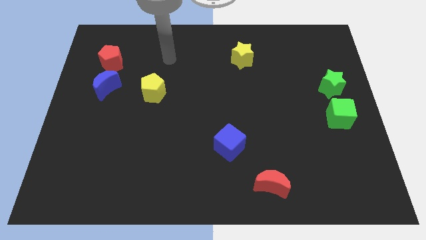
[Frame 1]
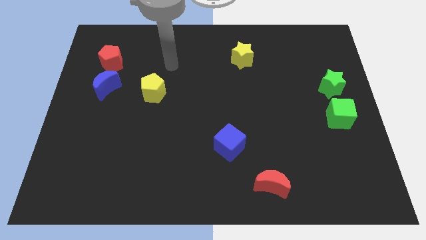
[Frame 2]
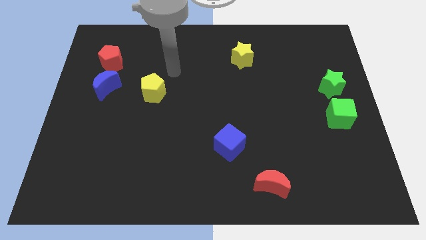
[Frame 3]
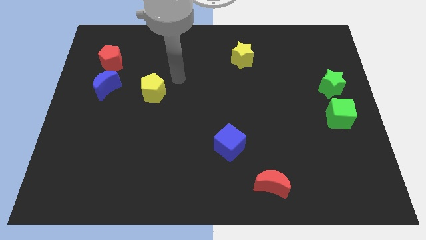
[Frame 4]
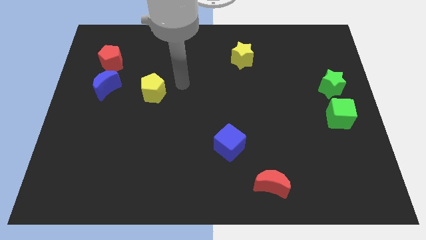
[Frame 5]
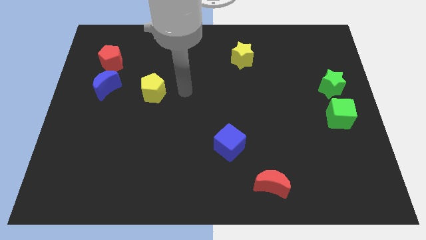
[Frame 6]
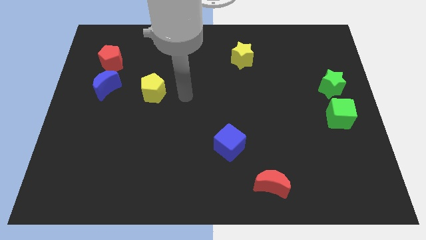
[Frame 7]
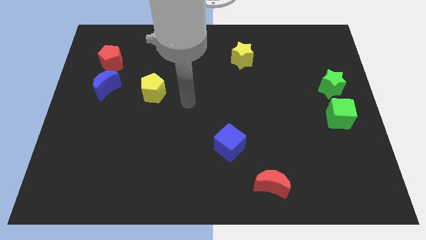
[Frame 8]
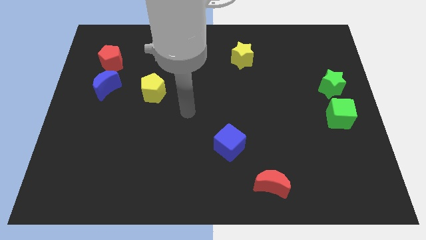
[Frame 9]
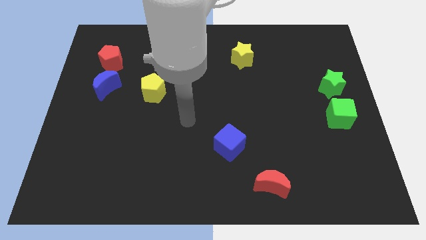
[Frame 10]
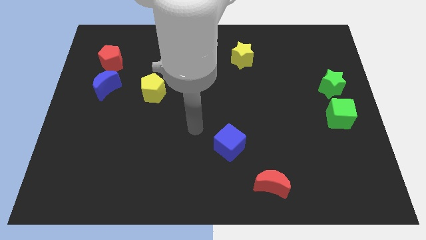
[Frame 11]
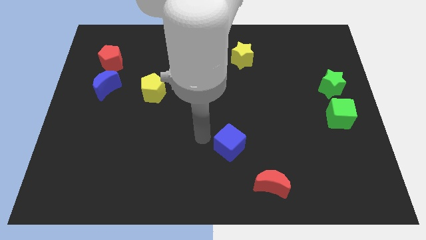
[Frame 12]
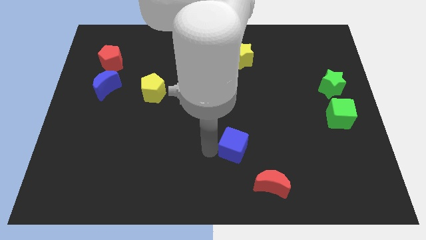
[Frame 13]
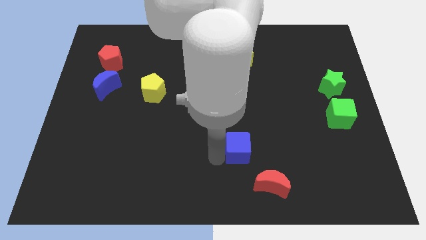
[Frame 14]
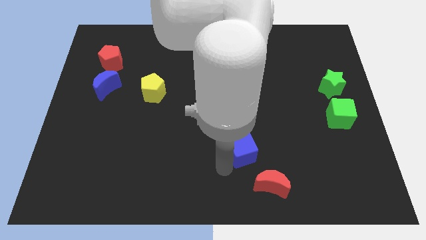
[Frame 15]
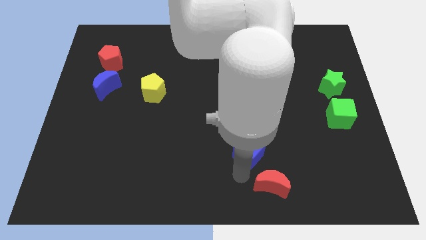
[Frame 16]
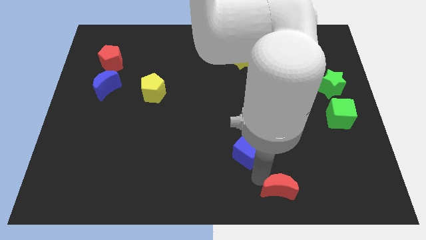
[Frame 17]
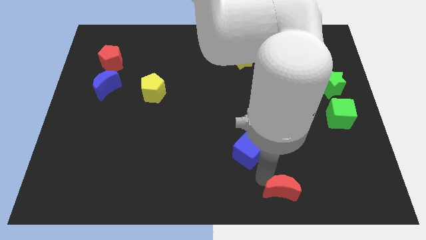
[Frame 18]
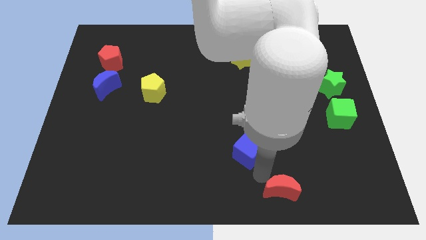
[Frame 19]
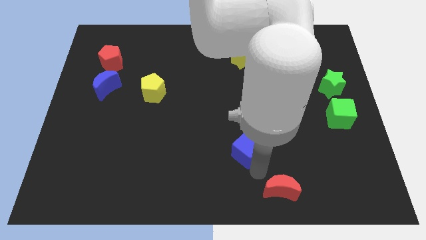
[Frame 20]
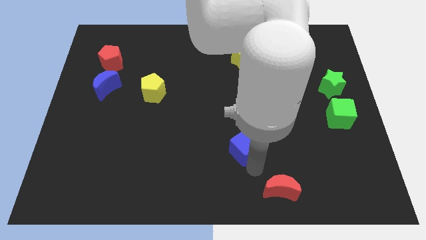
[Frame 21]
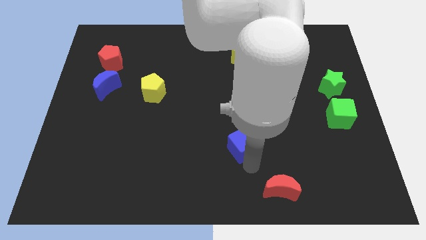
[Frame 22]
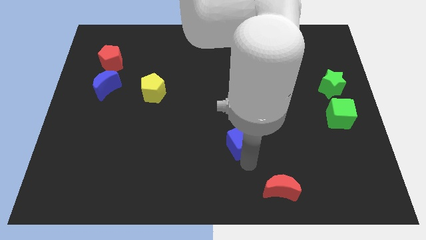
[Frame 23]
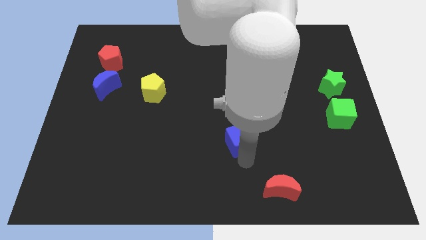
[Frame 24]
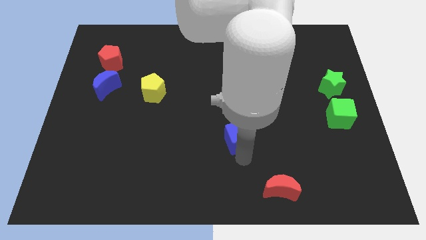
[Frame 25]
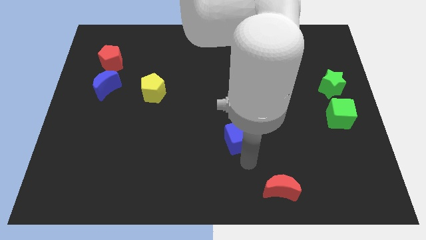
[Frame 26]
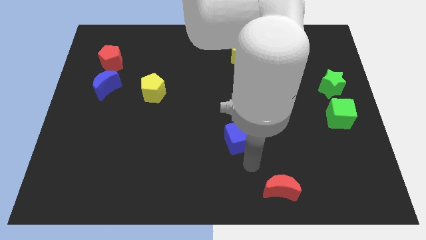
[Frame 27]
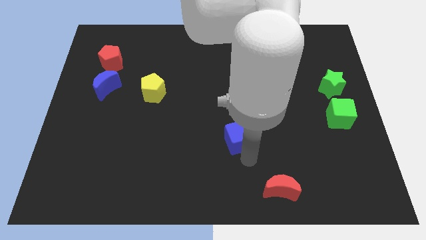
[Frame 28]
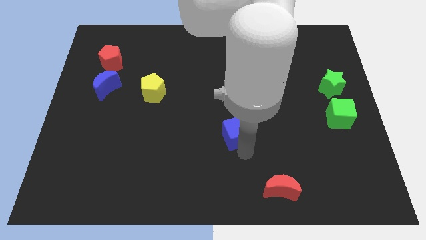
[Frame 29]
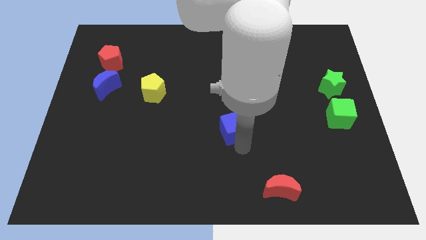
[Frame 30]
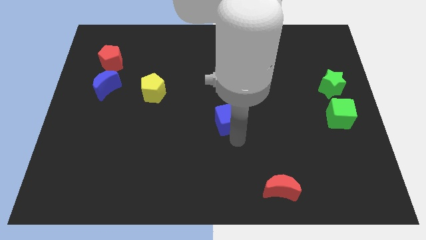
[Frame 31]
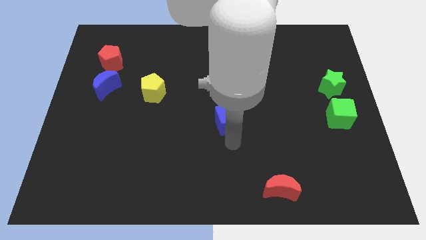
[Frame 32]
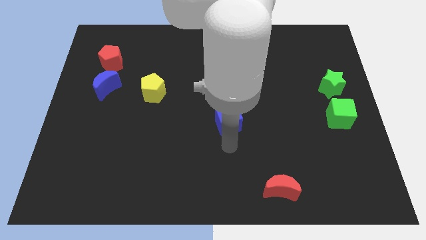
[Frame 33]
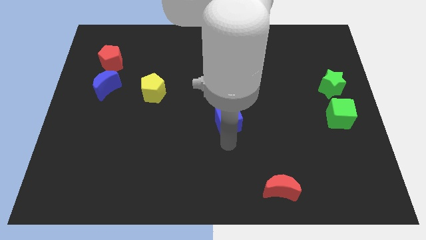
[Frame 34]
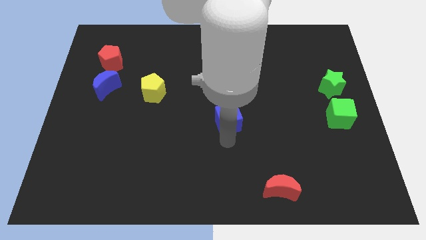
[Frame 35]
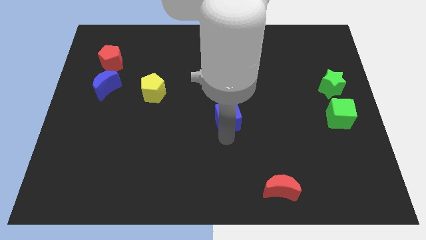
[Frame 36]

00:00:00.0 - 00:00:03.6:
move the blue cube a bit upwards

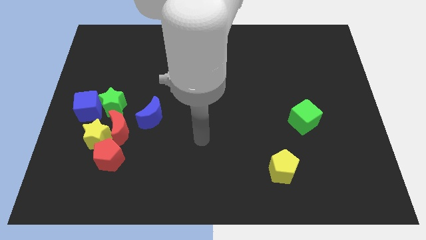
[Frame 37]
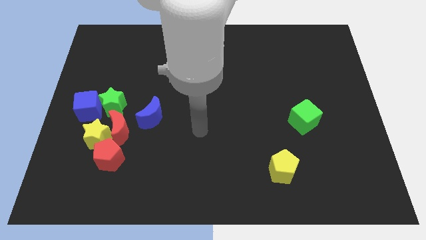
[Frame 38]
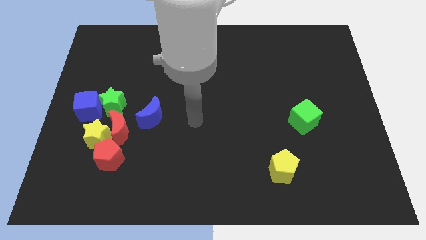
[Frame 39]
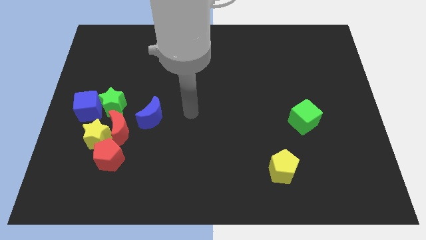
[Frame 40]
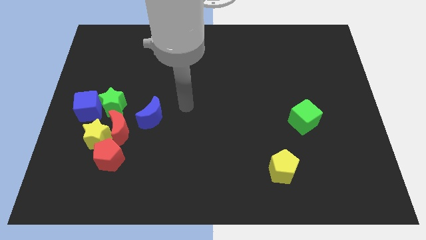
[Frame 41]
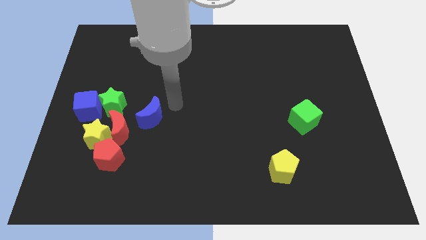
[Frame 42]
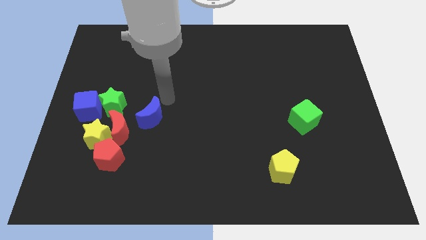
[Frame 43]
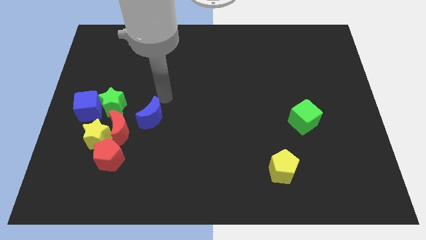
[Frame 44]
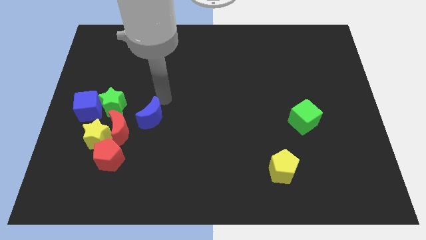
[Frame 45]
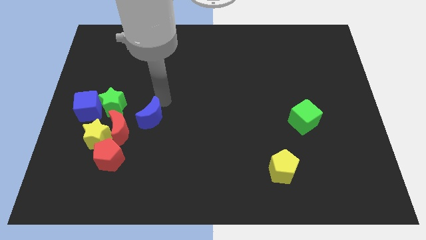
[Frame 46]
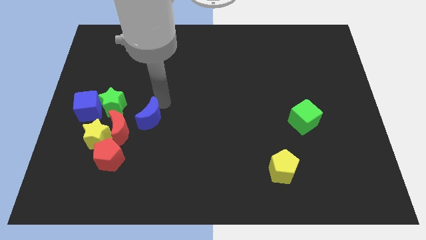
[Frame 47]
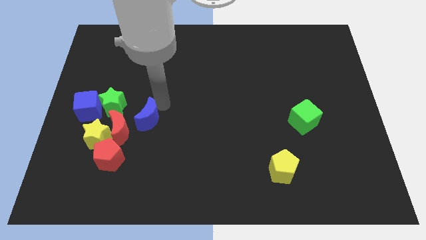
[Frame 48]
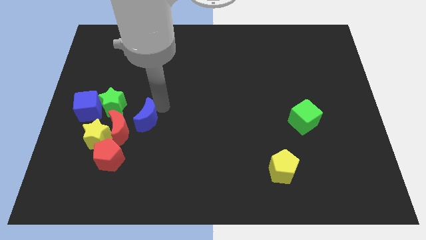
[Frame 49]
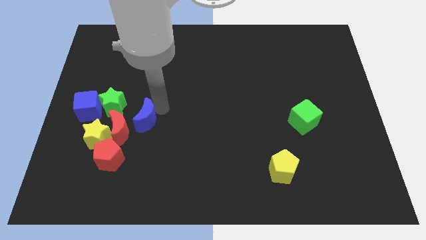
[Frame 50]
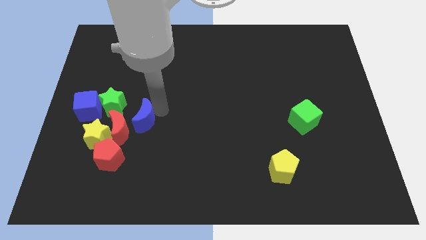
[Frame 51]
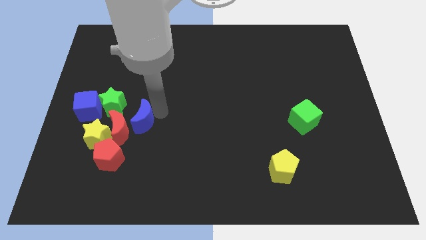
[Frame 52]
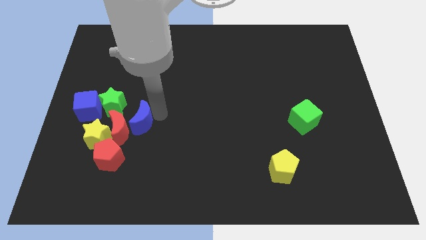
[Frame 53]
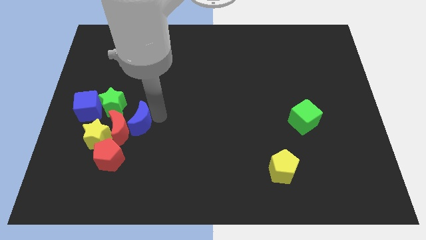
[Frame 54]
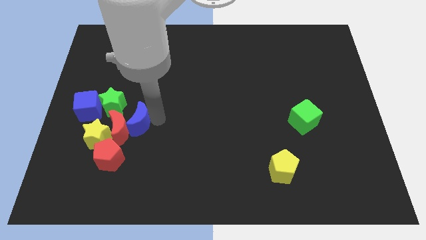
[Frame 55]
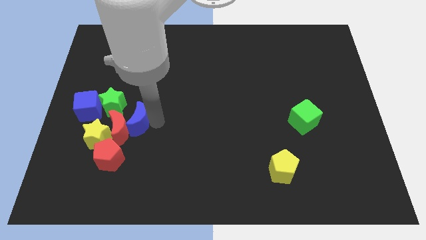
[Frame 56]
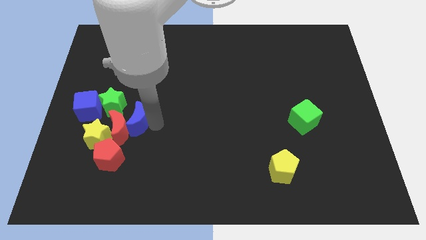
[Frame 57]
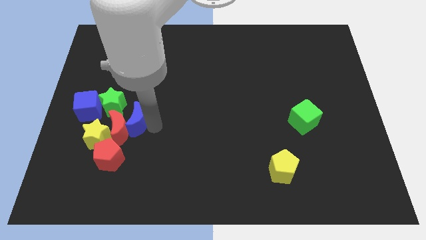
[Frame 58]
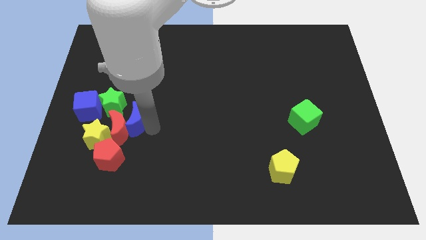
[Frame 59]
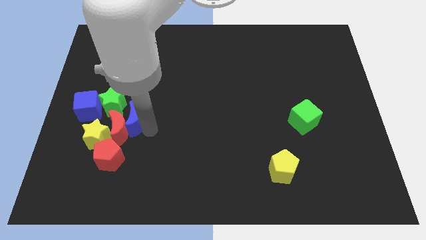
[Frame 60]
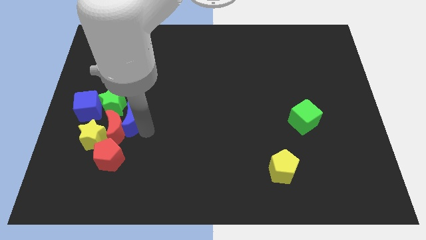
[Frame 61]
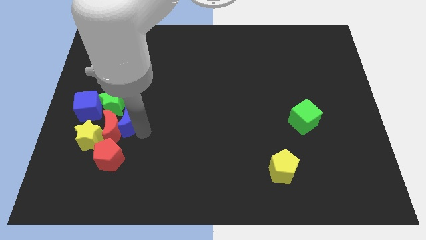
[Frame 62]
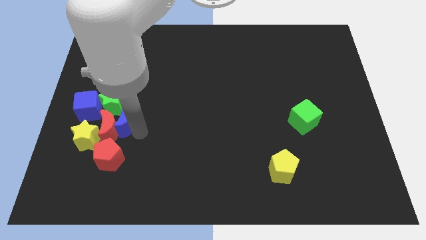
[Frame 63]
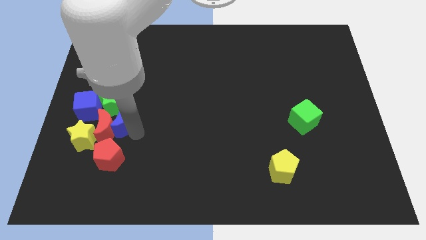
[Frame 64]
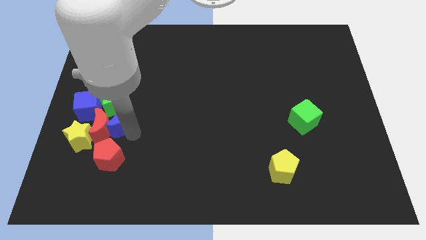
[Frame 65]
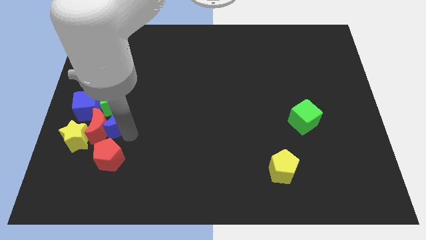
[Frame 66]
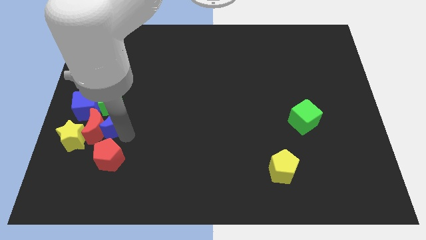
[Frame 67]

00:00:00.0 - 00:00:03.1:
move the blue moon somewhat down and then left

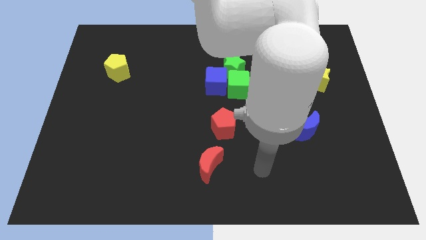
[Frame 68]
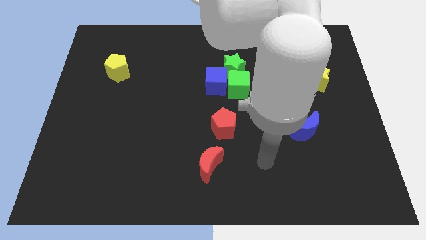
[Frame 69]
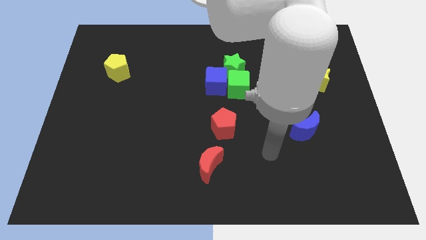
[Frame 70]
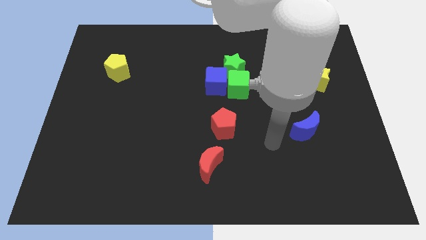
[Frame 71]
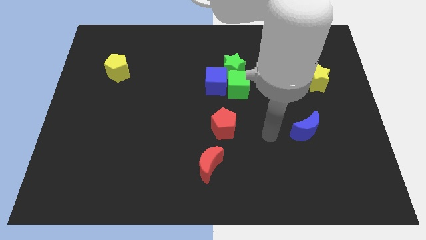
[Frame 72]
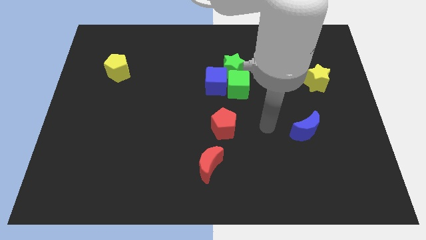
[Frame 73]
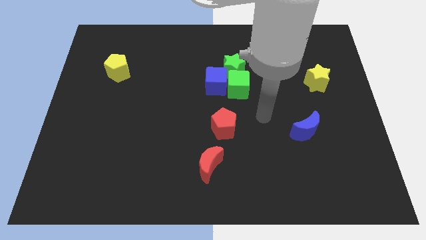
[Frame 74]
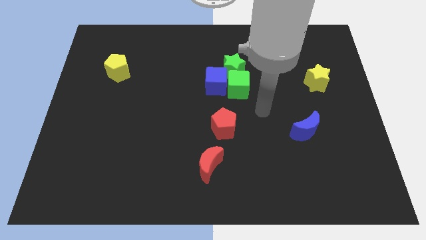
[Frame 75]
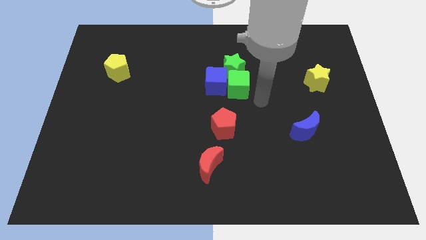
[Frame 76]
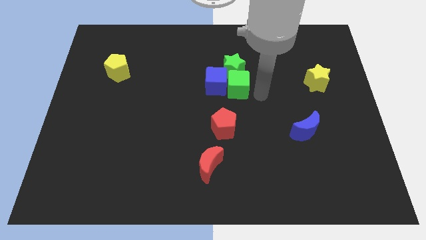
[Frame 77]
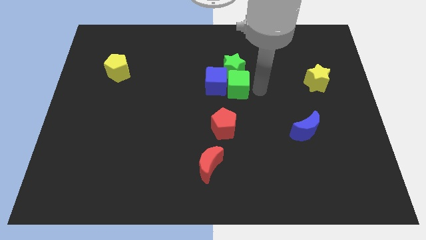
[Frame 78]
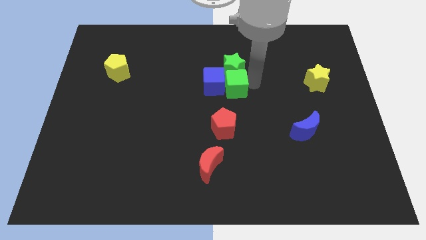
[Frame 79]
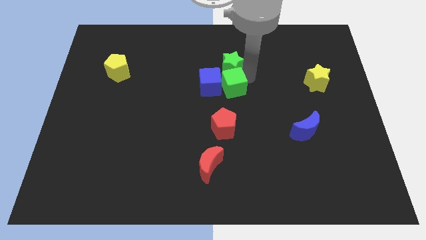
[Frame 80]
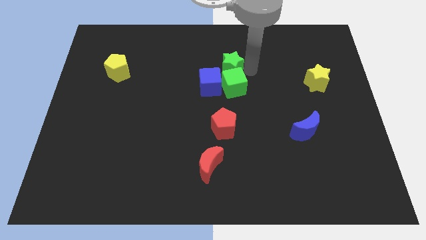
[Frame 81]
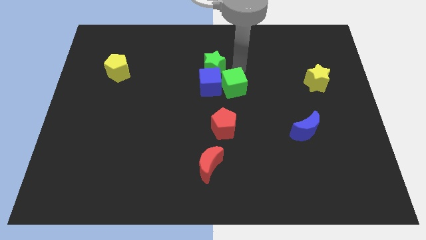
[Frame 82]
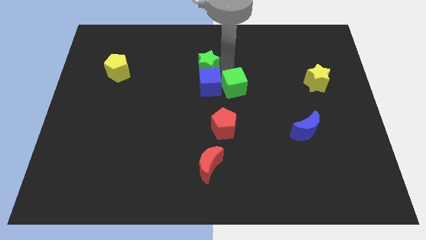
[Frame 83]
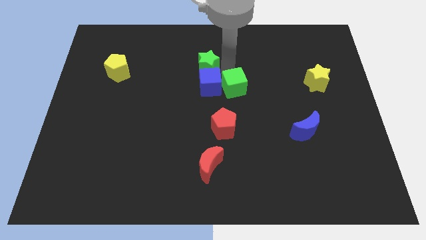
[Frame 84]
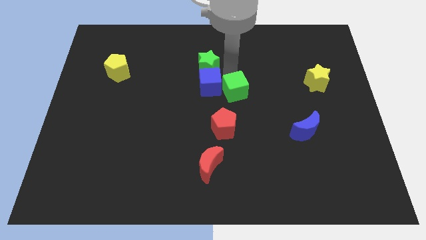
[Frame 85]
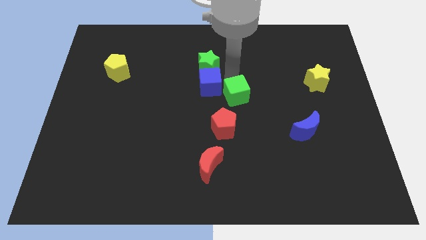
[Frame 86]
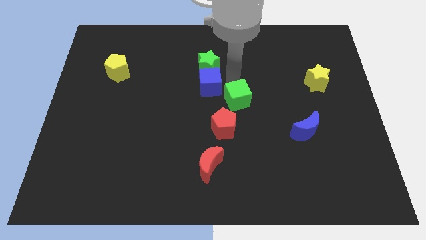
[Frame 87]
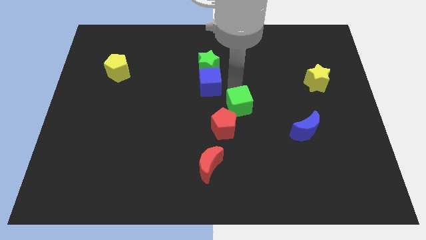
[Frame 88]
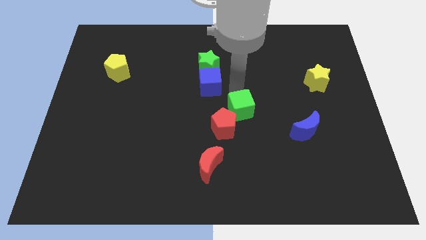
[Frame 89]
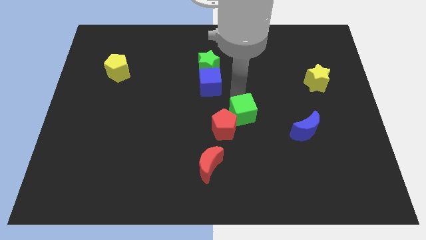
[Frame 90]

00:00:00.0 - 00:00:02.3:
slide the green cube downwards a little
